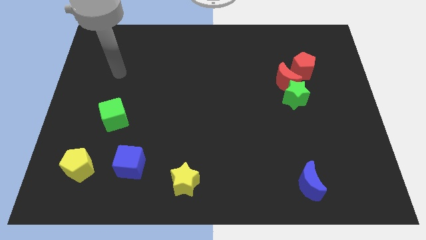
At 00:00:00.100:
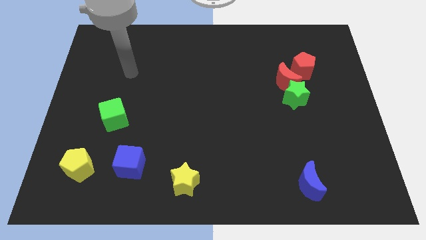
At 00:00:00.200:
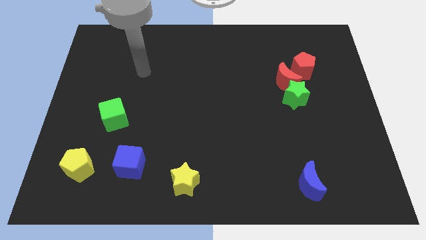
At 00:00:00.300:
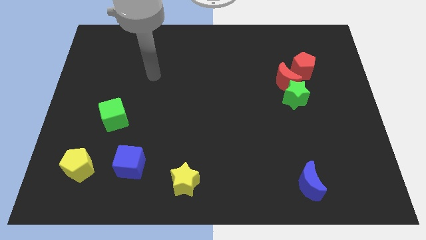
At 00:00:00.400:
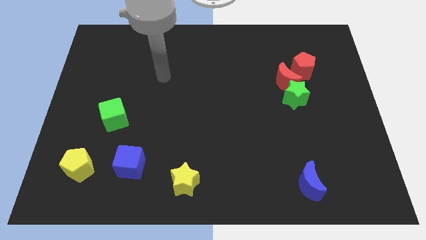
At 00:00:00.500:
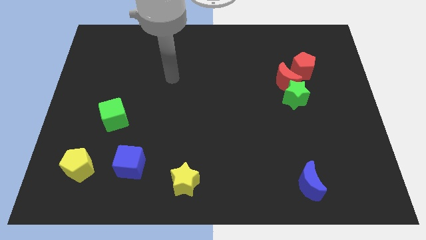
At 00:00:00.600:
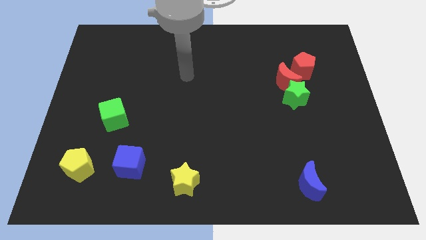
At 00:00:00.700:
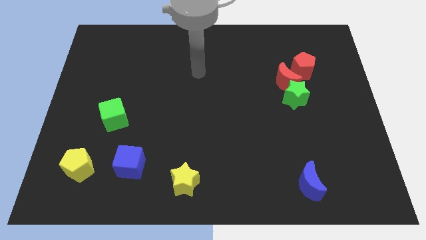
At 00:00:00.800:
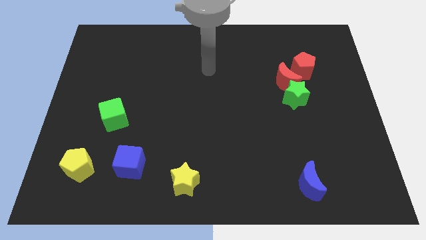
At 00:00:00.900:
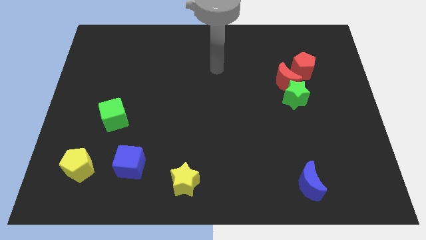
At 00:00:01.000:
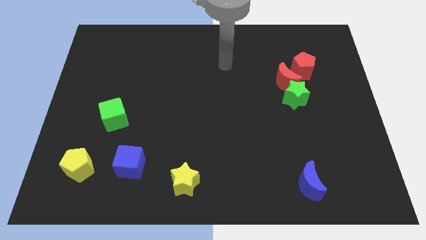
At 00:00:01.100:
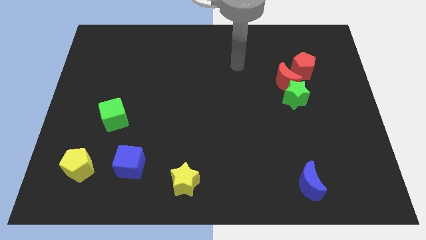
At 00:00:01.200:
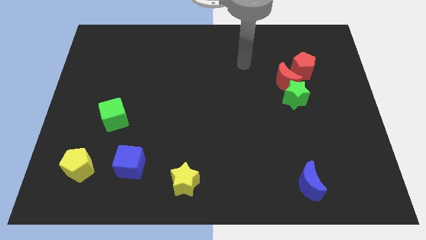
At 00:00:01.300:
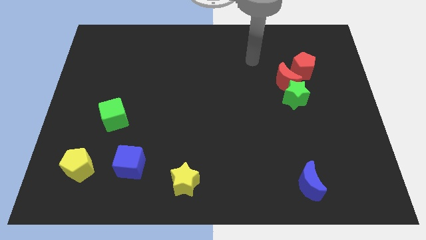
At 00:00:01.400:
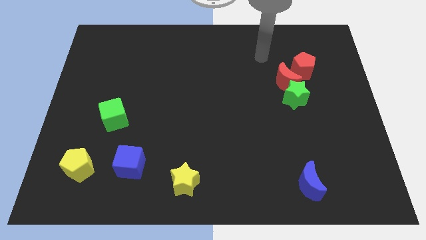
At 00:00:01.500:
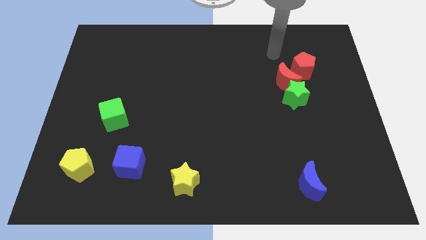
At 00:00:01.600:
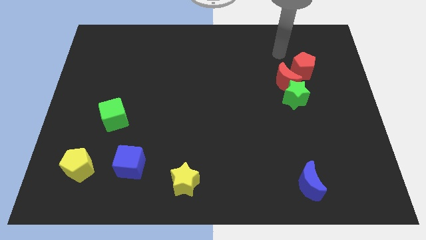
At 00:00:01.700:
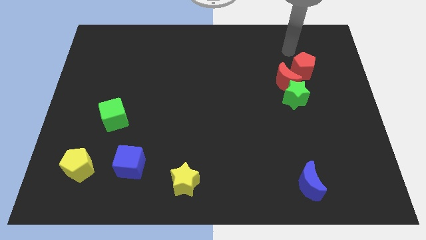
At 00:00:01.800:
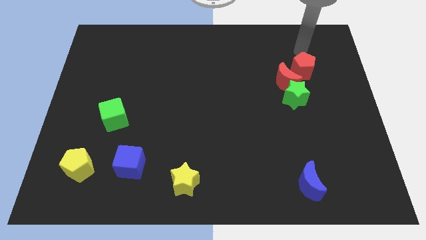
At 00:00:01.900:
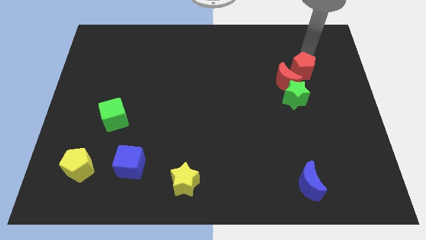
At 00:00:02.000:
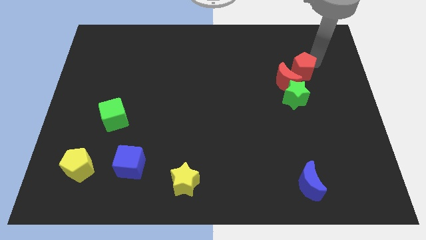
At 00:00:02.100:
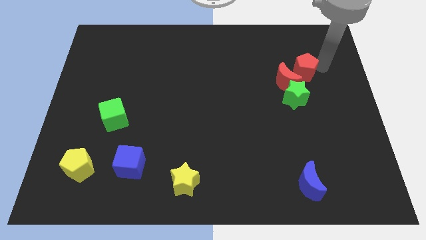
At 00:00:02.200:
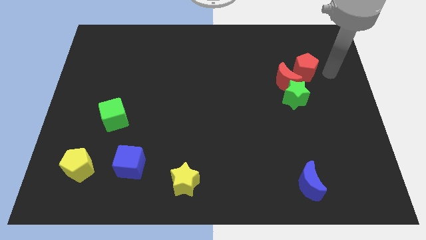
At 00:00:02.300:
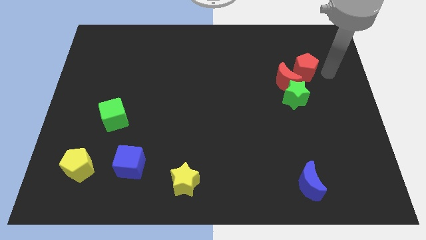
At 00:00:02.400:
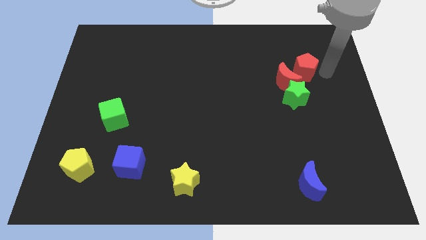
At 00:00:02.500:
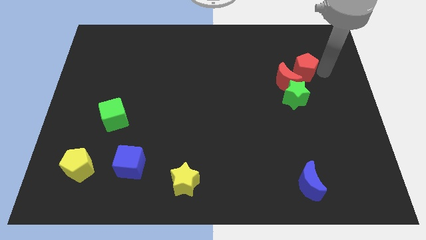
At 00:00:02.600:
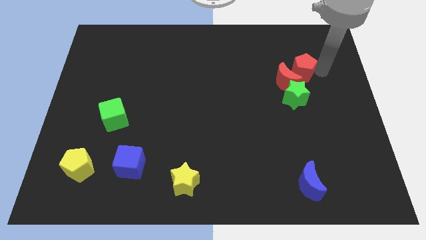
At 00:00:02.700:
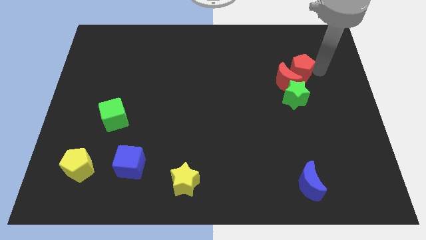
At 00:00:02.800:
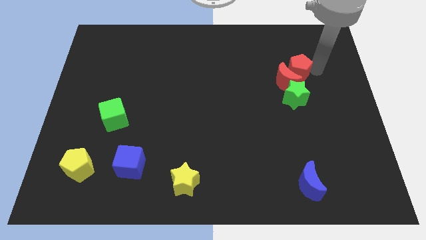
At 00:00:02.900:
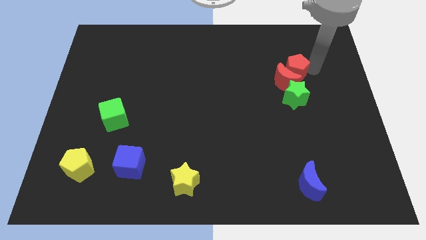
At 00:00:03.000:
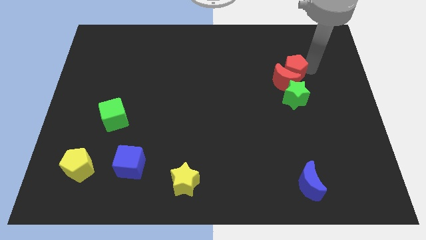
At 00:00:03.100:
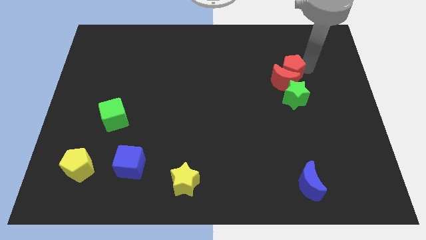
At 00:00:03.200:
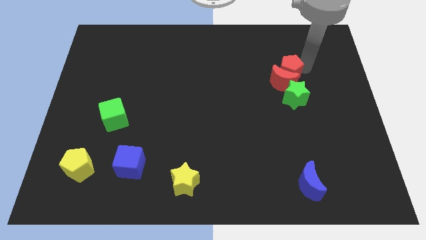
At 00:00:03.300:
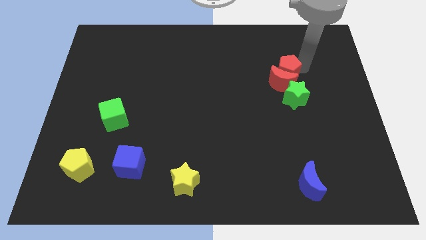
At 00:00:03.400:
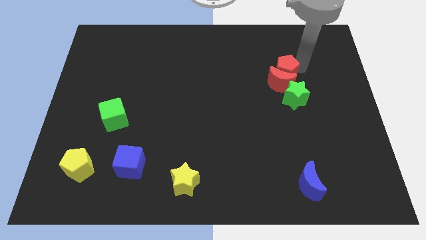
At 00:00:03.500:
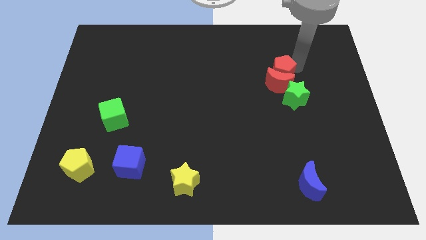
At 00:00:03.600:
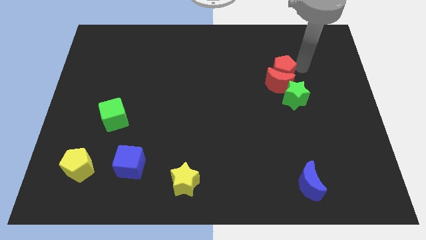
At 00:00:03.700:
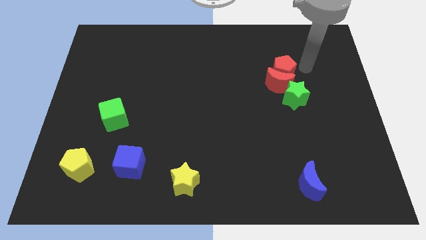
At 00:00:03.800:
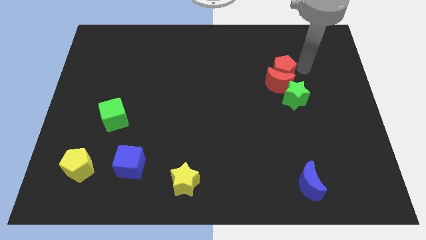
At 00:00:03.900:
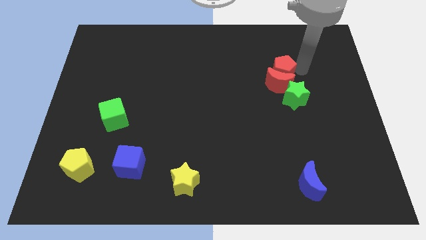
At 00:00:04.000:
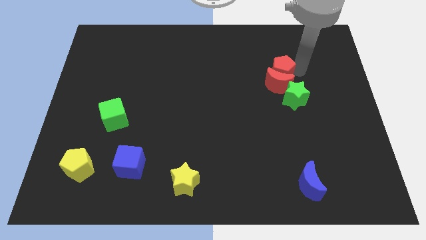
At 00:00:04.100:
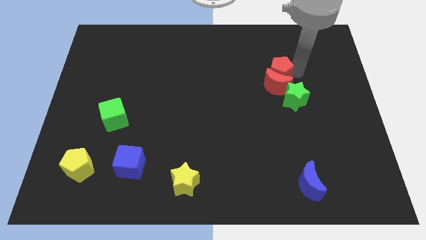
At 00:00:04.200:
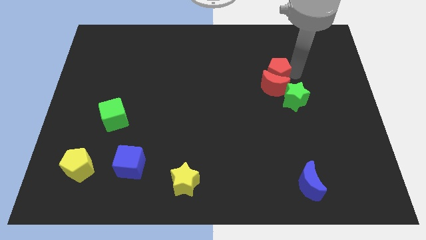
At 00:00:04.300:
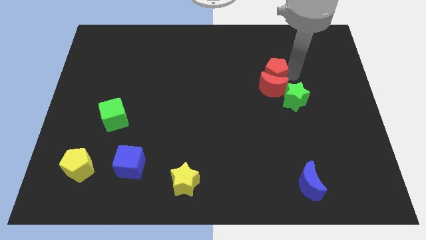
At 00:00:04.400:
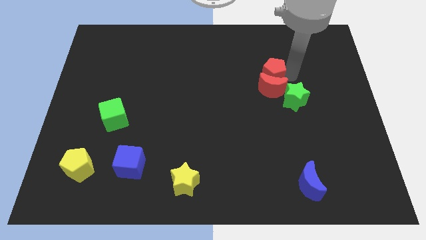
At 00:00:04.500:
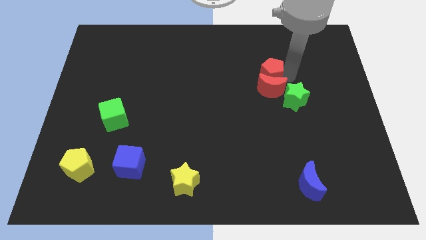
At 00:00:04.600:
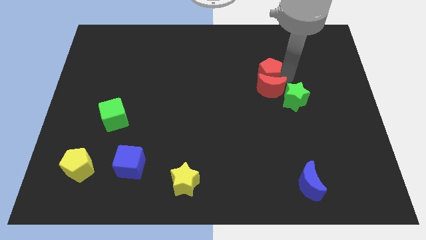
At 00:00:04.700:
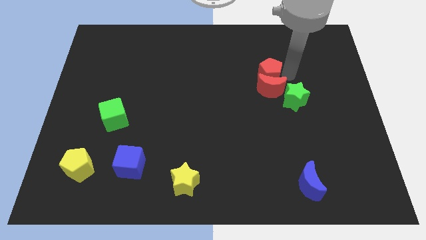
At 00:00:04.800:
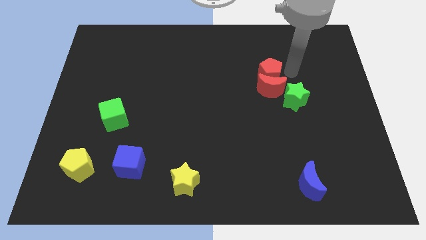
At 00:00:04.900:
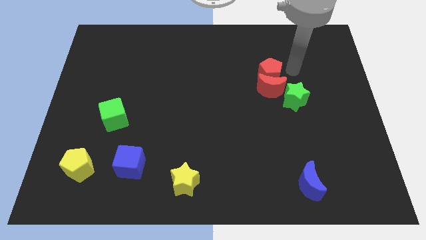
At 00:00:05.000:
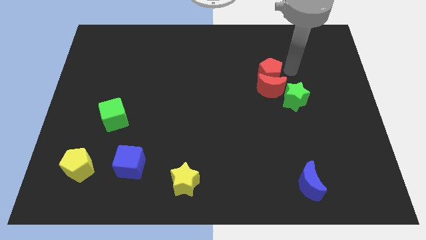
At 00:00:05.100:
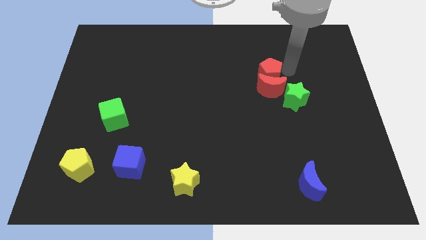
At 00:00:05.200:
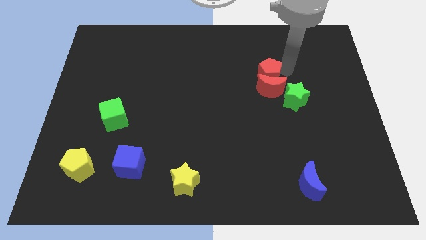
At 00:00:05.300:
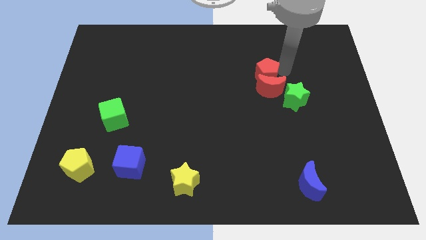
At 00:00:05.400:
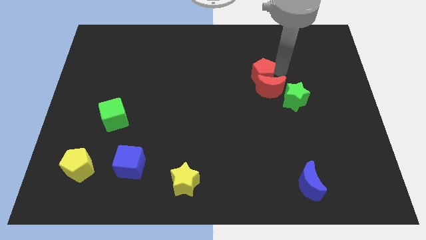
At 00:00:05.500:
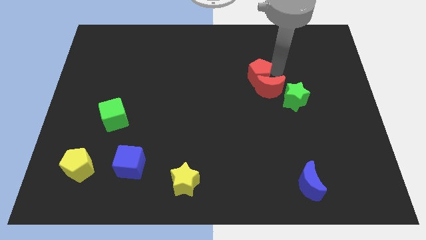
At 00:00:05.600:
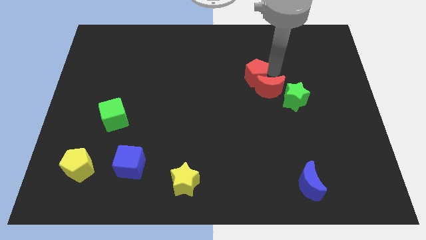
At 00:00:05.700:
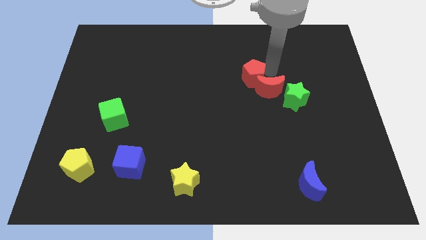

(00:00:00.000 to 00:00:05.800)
slide the red pentagon to the center

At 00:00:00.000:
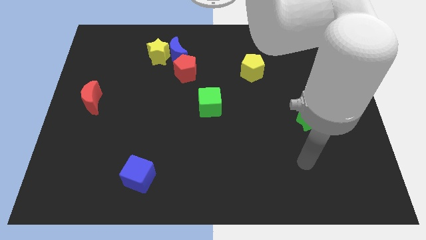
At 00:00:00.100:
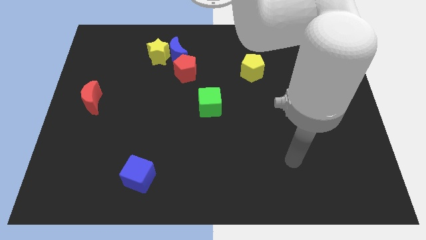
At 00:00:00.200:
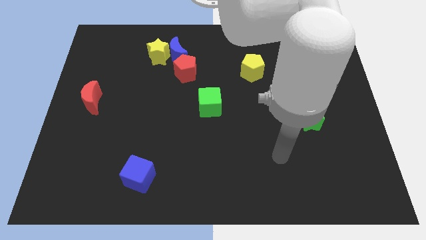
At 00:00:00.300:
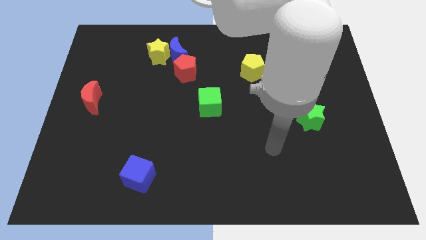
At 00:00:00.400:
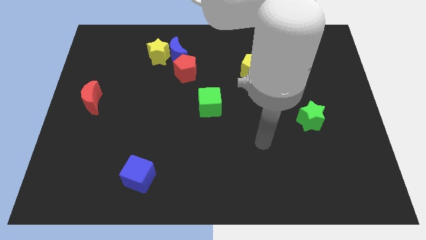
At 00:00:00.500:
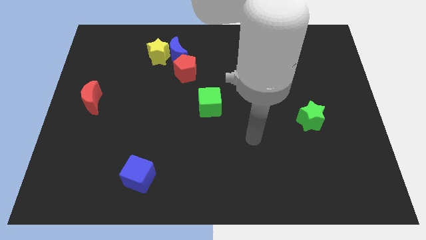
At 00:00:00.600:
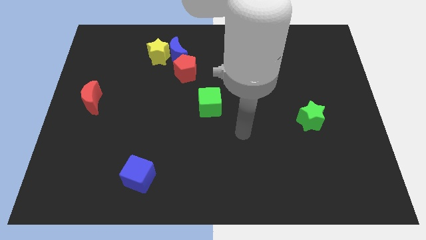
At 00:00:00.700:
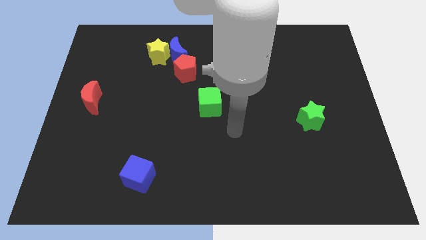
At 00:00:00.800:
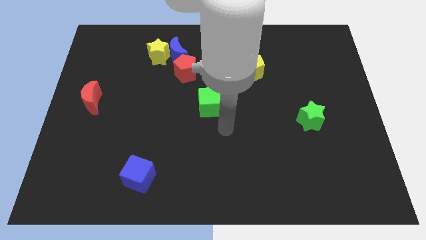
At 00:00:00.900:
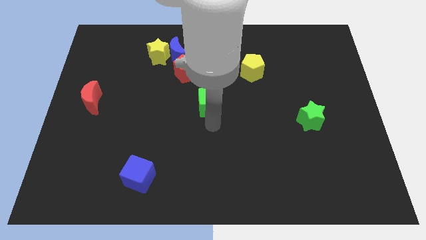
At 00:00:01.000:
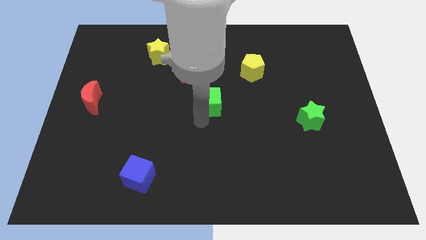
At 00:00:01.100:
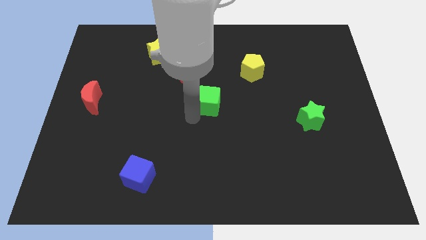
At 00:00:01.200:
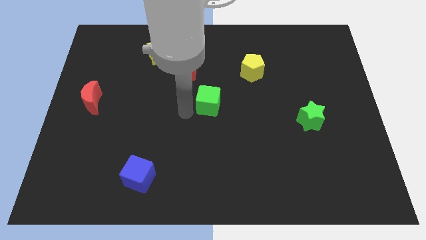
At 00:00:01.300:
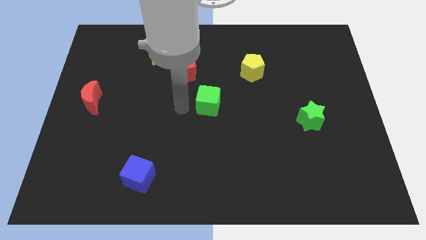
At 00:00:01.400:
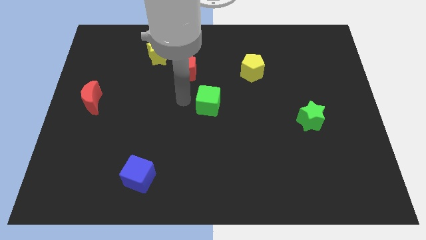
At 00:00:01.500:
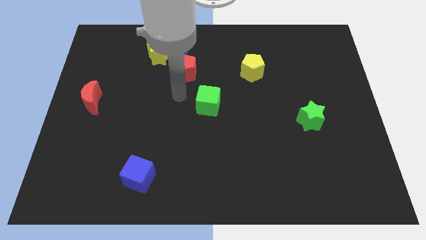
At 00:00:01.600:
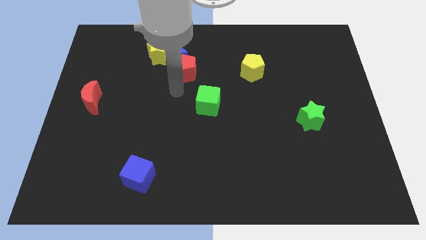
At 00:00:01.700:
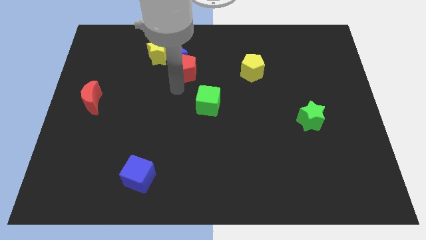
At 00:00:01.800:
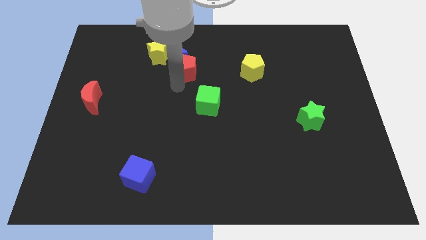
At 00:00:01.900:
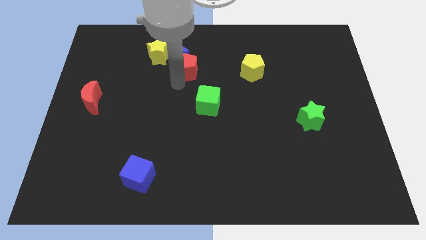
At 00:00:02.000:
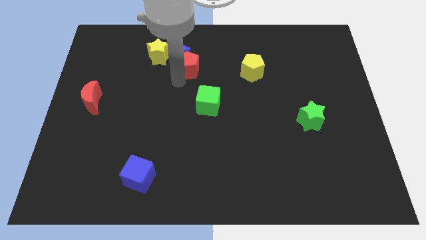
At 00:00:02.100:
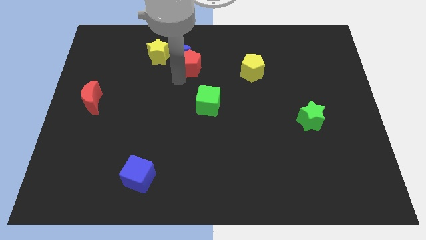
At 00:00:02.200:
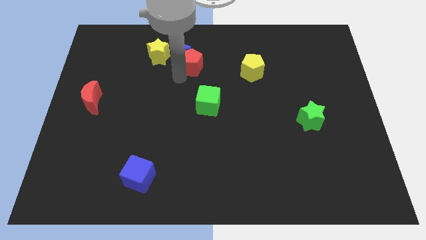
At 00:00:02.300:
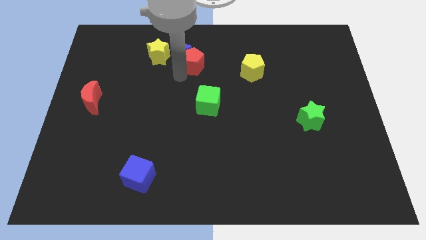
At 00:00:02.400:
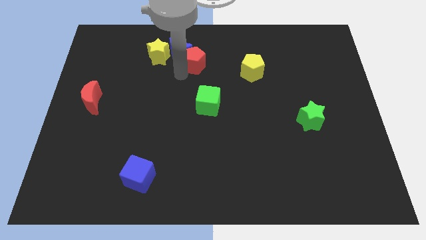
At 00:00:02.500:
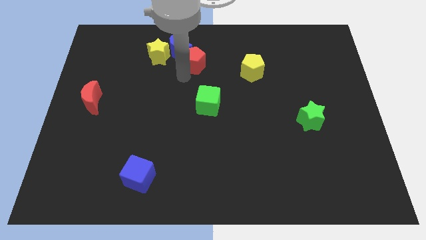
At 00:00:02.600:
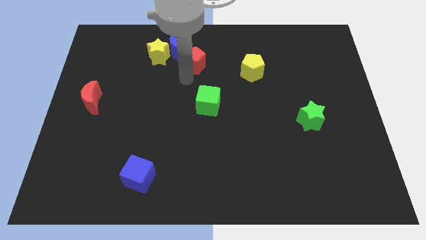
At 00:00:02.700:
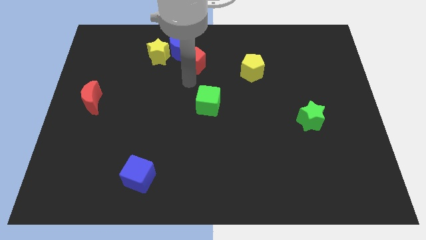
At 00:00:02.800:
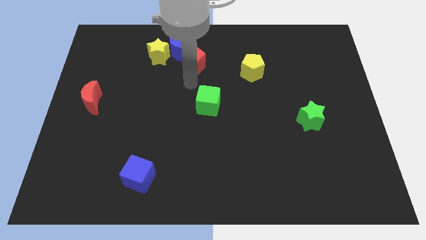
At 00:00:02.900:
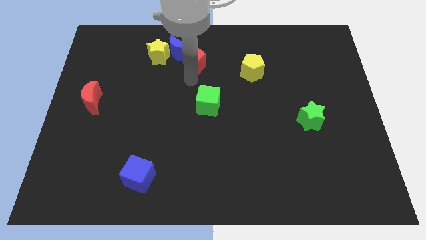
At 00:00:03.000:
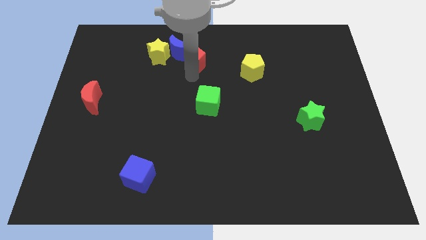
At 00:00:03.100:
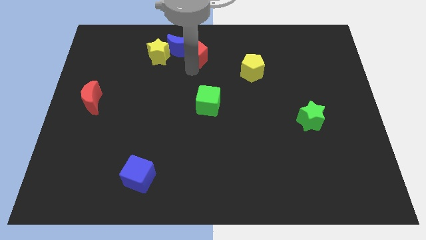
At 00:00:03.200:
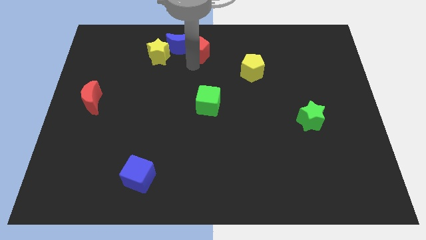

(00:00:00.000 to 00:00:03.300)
push the red pentagon to the top side
